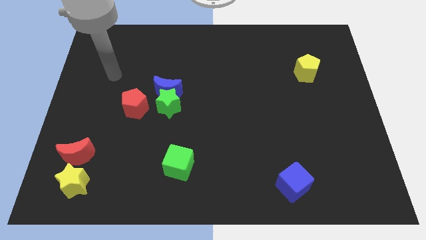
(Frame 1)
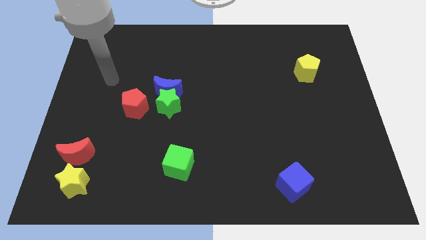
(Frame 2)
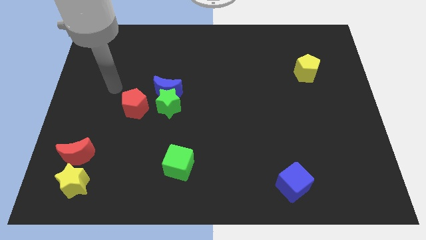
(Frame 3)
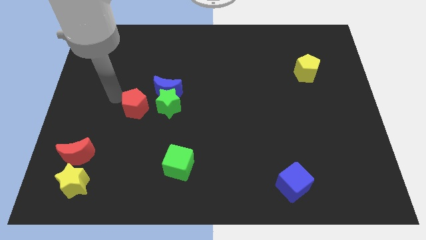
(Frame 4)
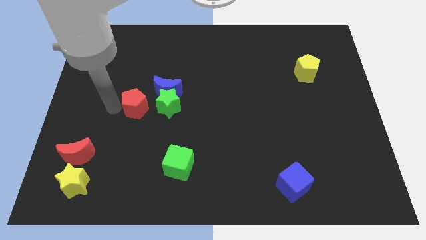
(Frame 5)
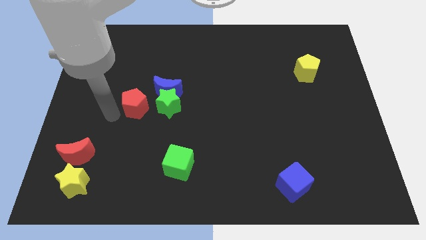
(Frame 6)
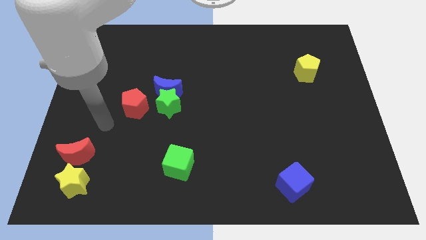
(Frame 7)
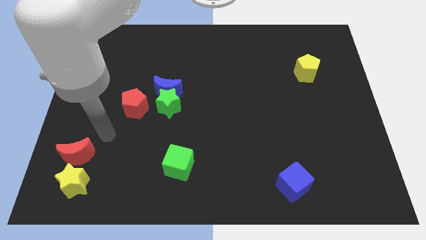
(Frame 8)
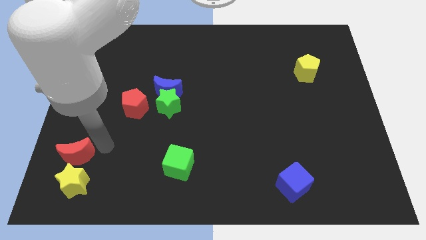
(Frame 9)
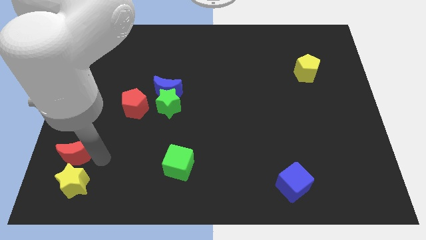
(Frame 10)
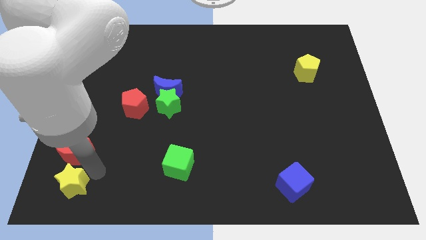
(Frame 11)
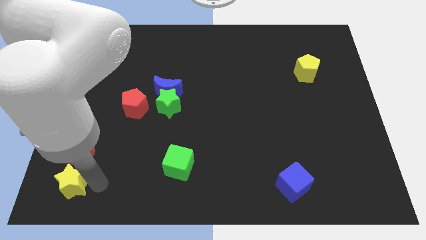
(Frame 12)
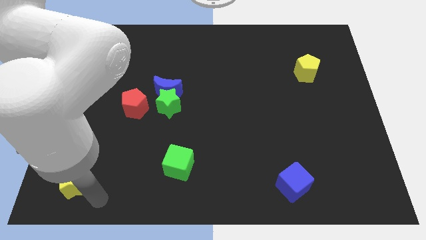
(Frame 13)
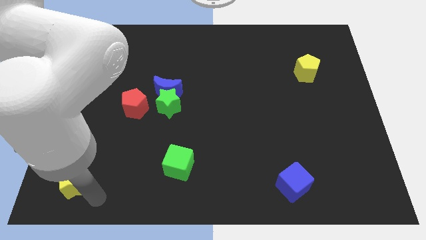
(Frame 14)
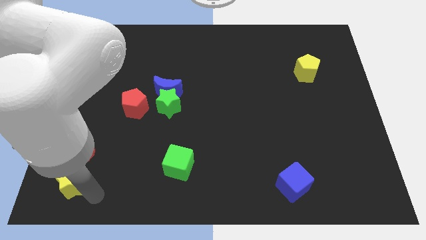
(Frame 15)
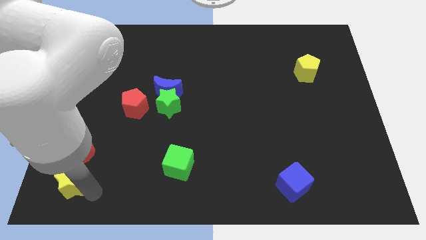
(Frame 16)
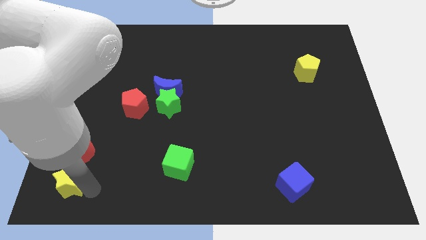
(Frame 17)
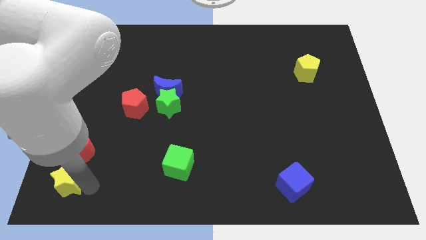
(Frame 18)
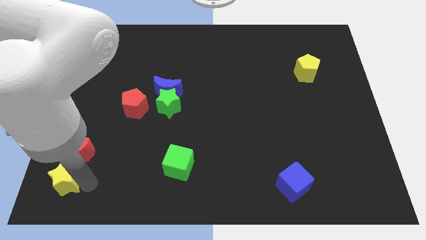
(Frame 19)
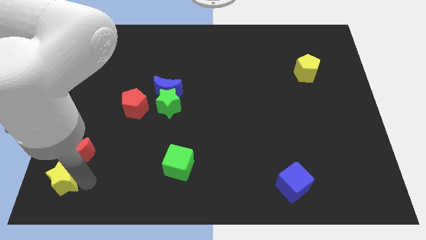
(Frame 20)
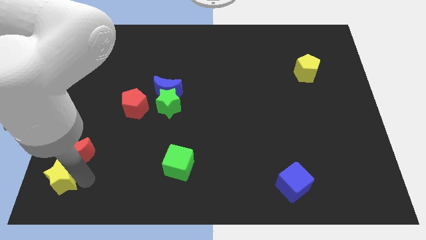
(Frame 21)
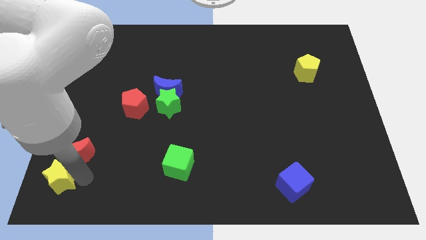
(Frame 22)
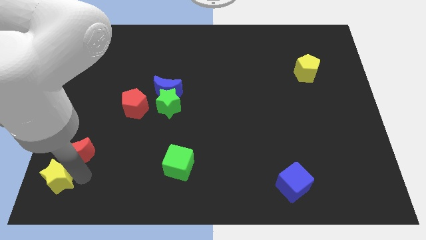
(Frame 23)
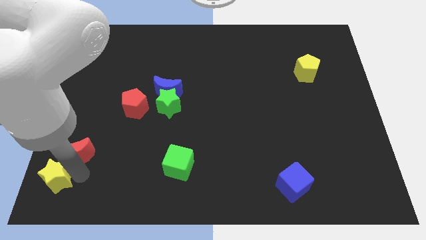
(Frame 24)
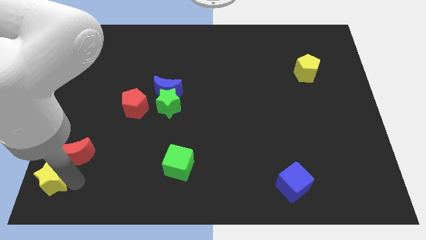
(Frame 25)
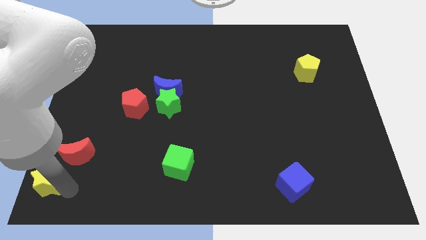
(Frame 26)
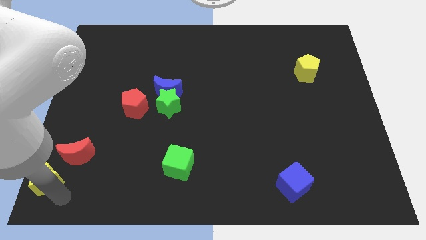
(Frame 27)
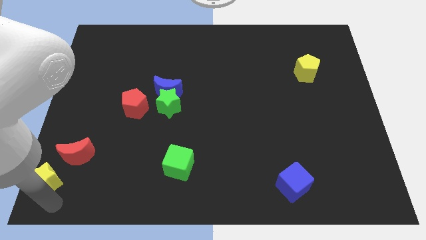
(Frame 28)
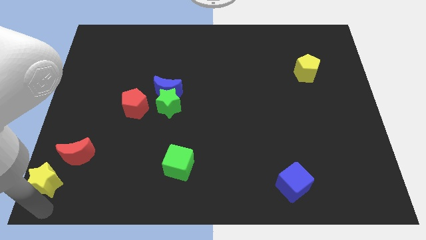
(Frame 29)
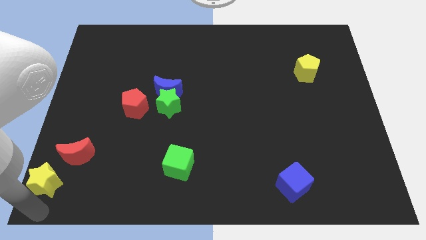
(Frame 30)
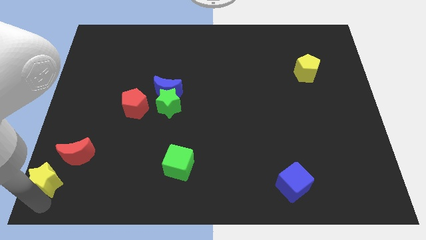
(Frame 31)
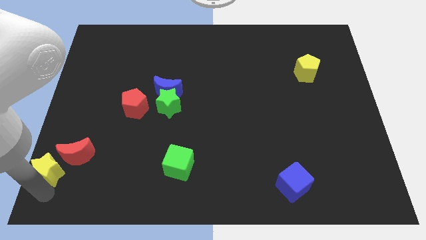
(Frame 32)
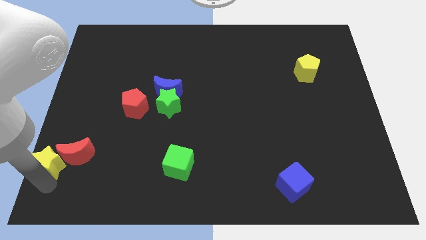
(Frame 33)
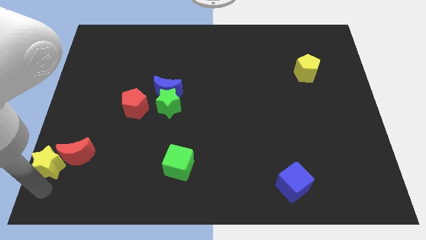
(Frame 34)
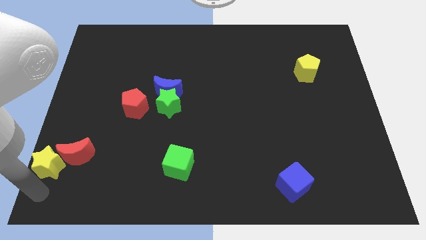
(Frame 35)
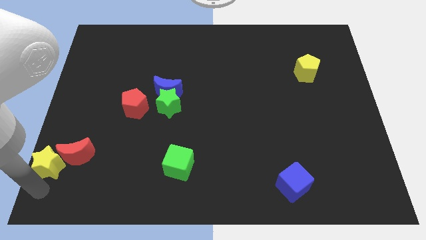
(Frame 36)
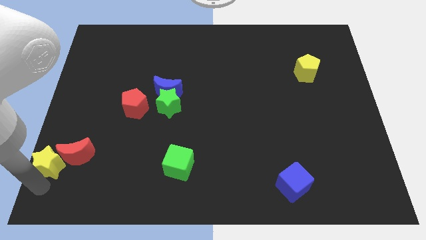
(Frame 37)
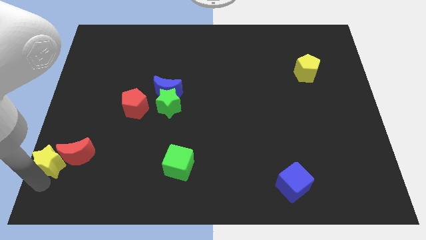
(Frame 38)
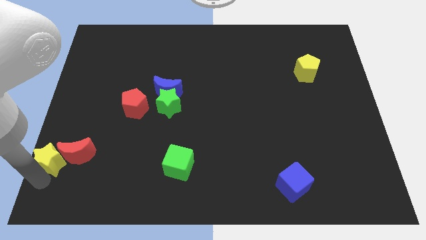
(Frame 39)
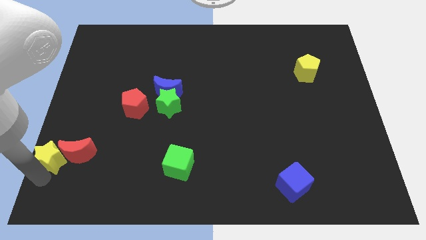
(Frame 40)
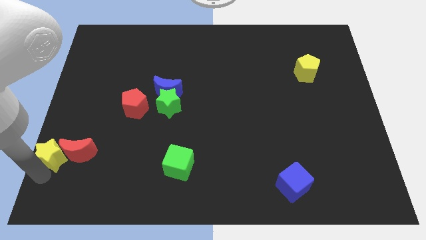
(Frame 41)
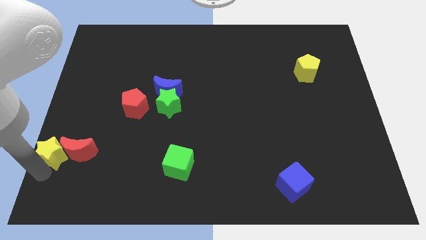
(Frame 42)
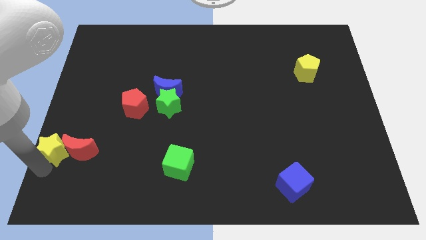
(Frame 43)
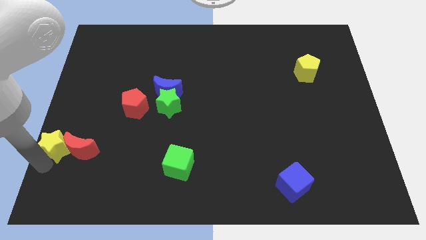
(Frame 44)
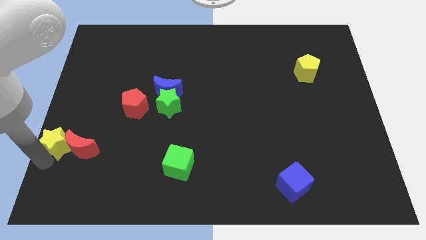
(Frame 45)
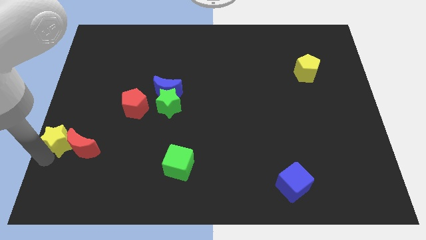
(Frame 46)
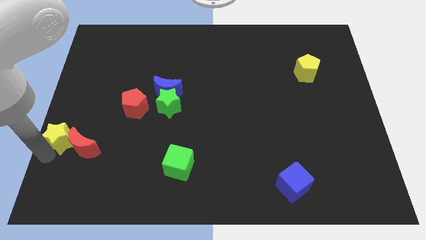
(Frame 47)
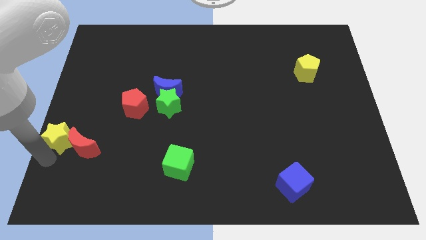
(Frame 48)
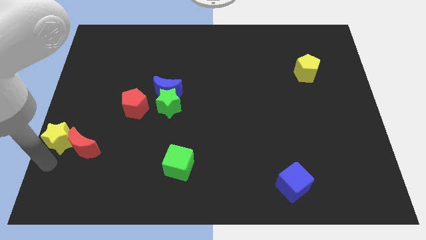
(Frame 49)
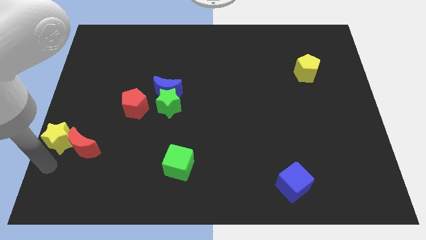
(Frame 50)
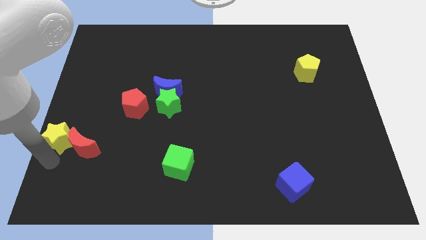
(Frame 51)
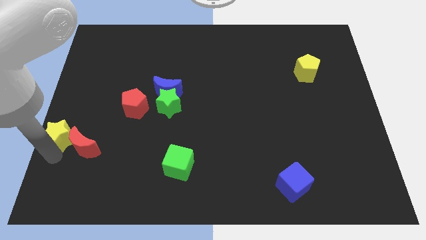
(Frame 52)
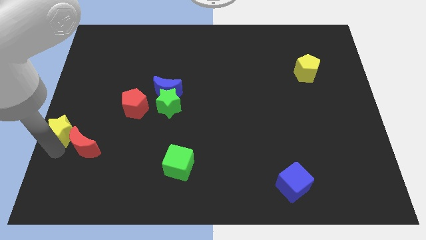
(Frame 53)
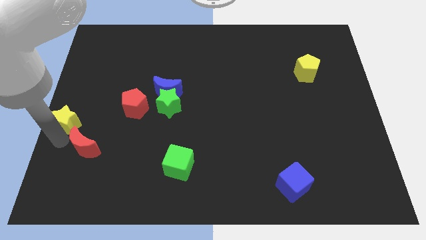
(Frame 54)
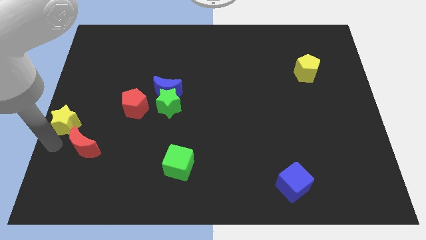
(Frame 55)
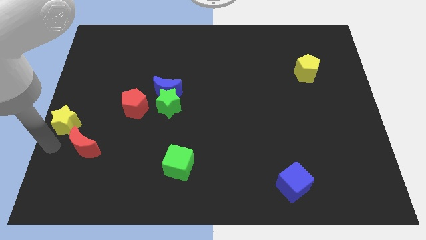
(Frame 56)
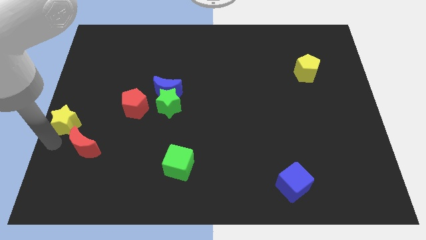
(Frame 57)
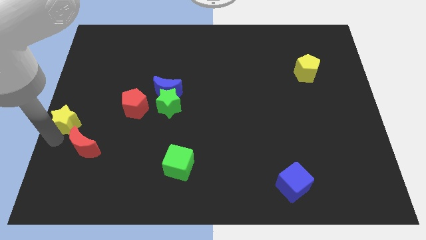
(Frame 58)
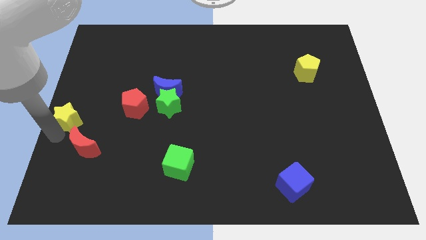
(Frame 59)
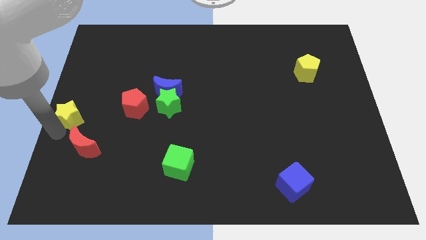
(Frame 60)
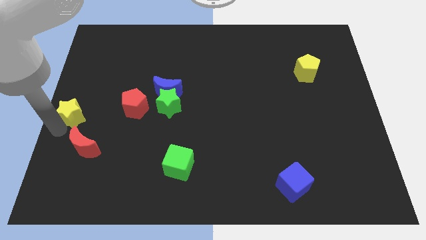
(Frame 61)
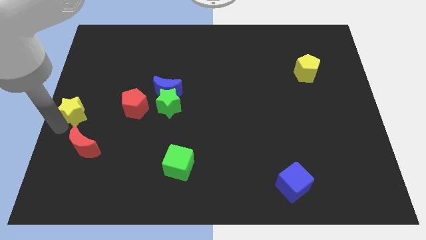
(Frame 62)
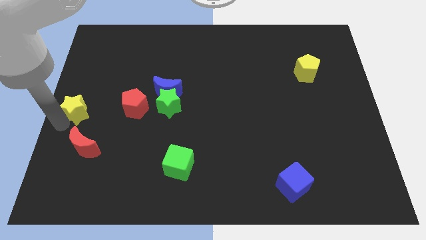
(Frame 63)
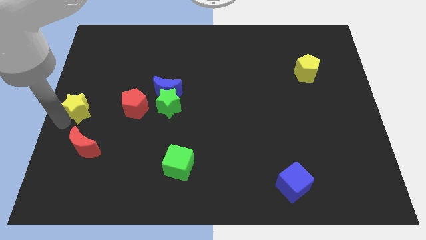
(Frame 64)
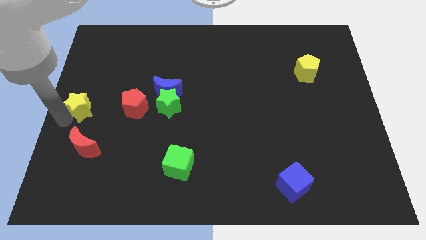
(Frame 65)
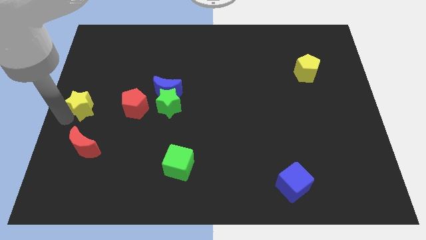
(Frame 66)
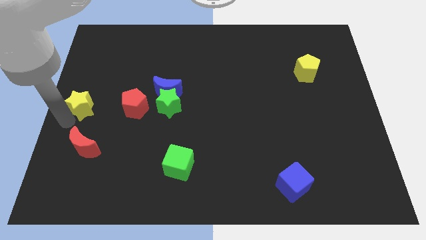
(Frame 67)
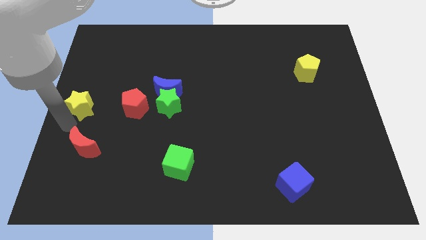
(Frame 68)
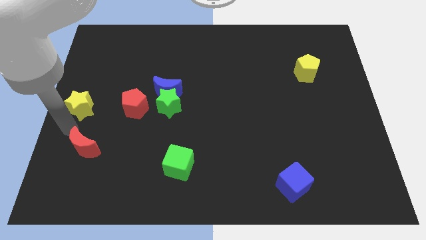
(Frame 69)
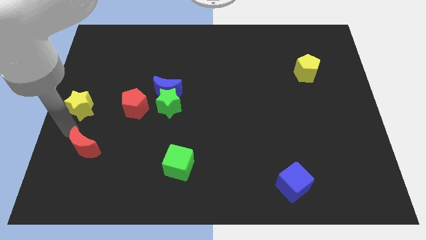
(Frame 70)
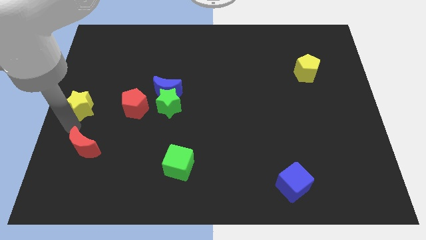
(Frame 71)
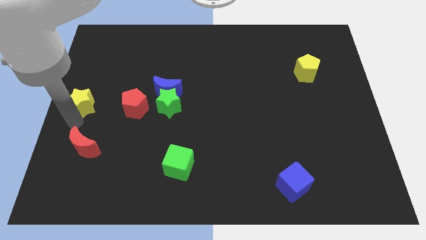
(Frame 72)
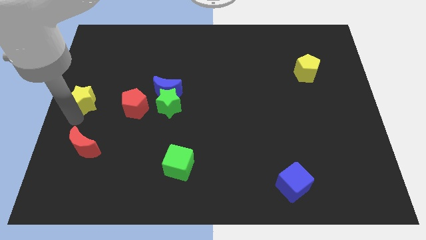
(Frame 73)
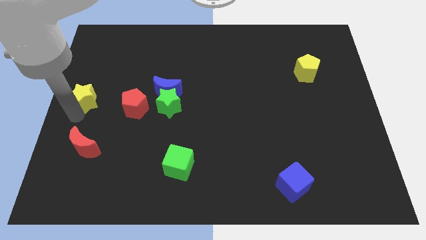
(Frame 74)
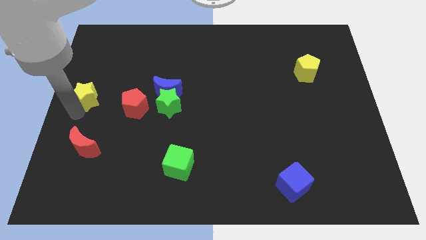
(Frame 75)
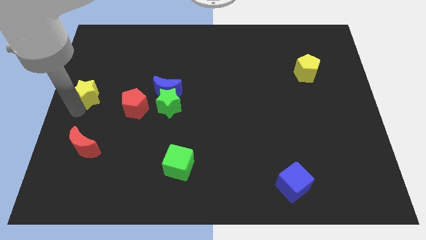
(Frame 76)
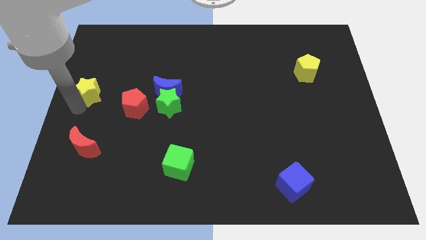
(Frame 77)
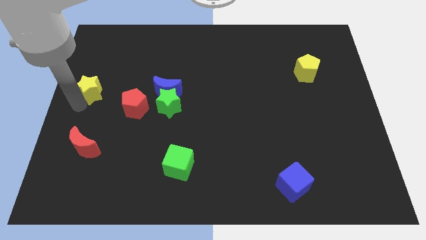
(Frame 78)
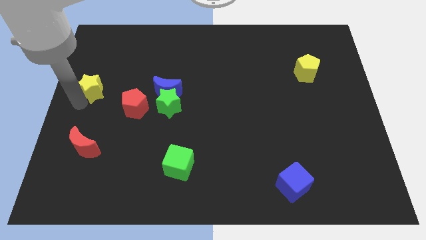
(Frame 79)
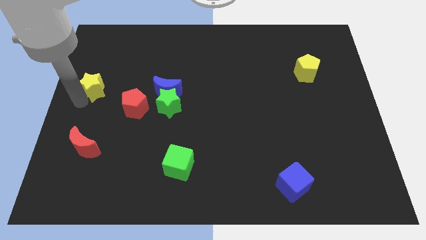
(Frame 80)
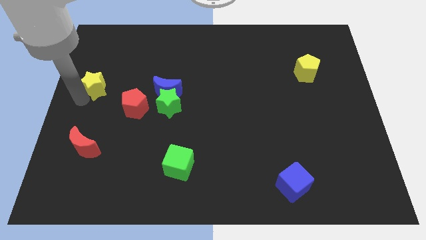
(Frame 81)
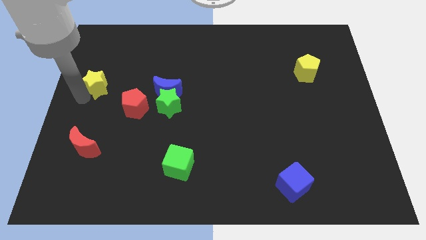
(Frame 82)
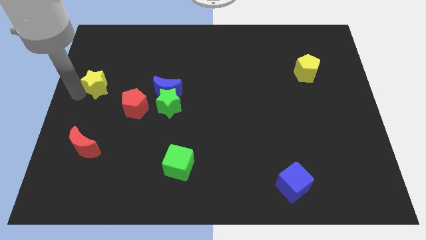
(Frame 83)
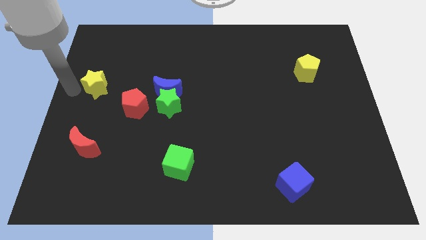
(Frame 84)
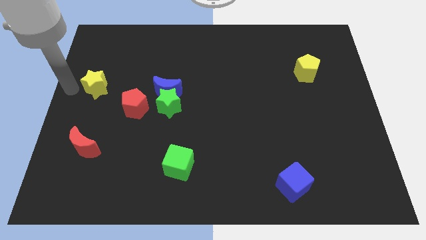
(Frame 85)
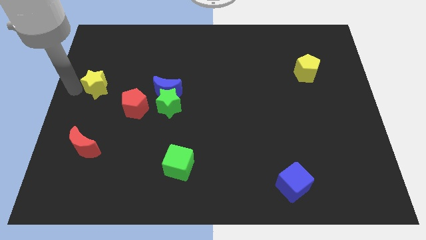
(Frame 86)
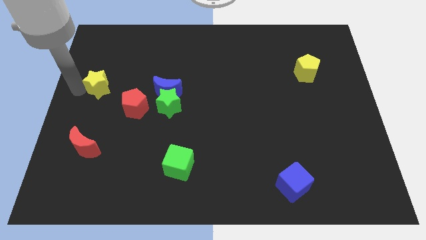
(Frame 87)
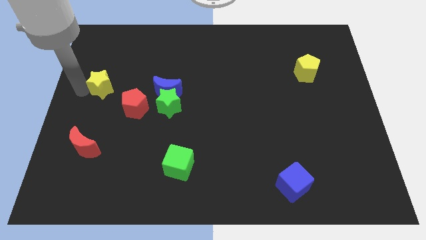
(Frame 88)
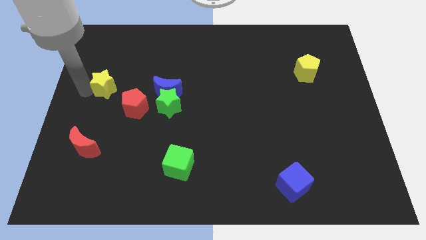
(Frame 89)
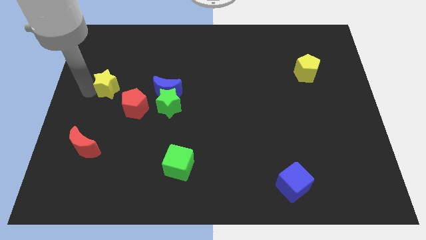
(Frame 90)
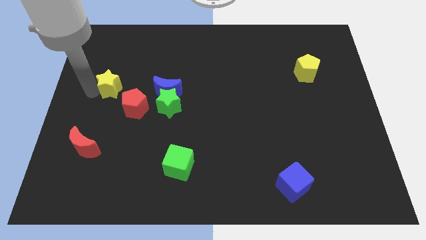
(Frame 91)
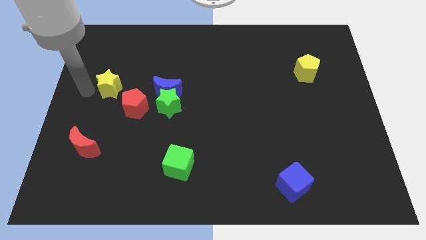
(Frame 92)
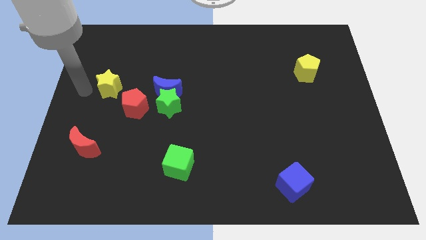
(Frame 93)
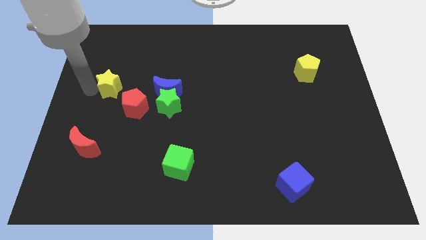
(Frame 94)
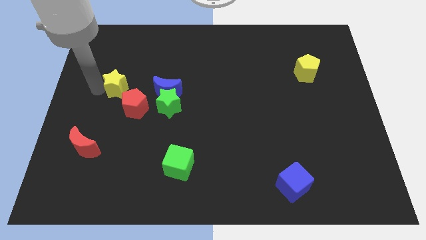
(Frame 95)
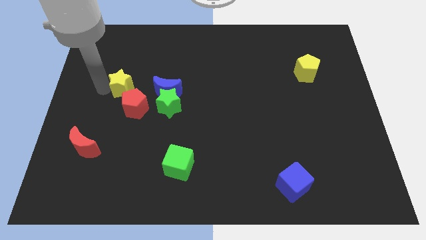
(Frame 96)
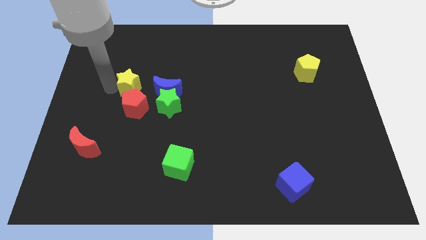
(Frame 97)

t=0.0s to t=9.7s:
push the yellow star to the top left side of the green star
